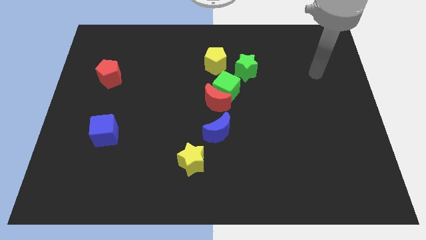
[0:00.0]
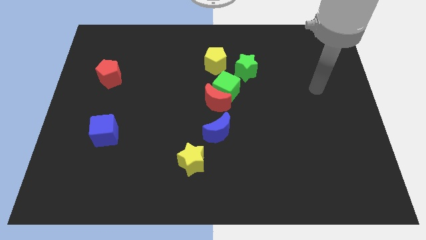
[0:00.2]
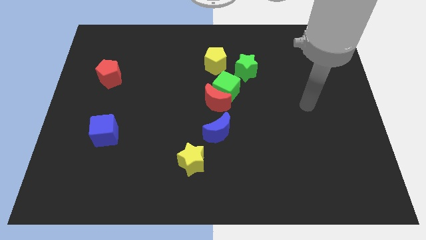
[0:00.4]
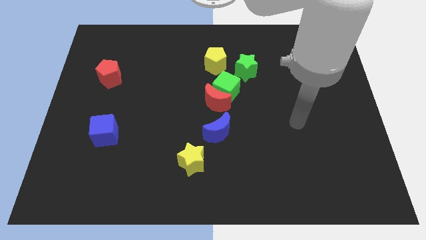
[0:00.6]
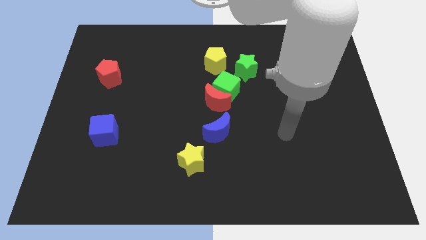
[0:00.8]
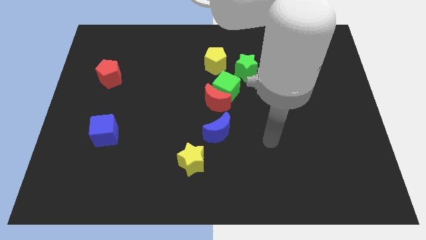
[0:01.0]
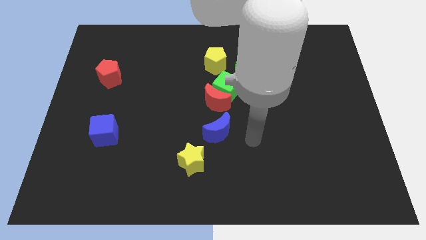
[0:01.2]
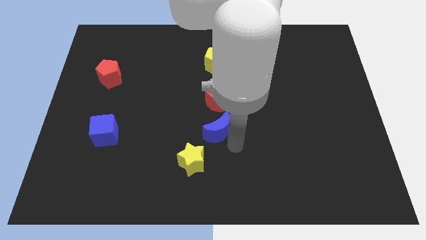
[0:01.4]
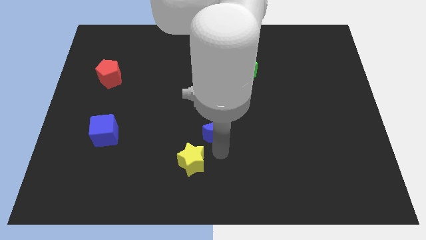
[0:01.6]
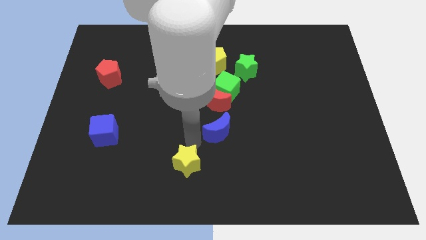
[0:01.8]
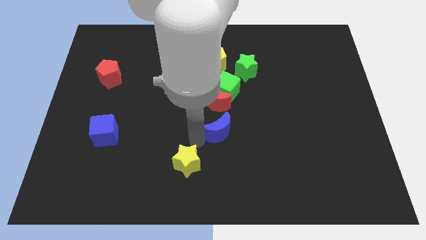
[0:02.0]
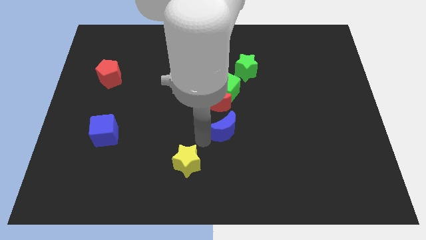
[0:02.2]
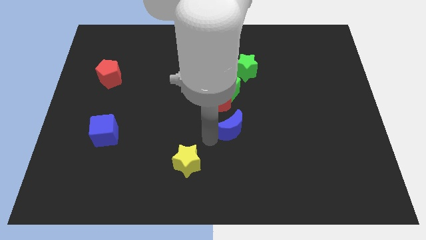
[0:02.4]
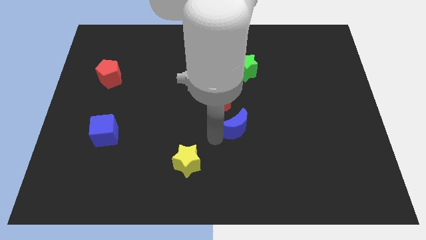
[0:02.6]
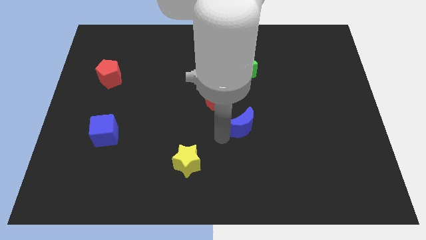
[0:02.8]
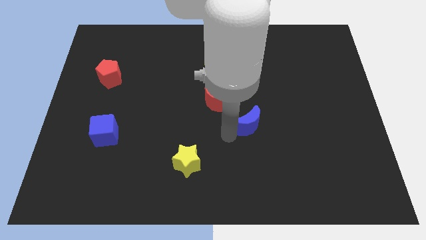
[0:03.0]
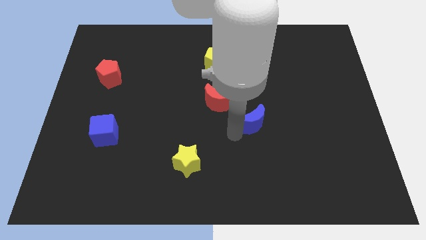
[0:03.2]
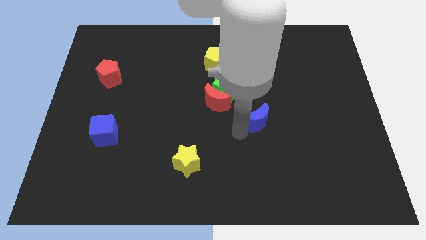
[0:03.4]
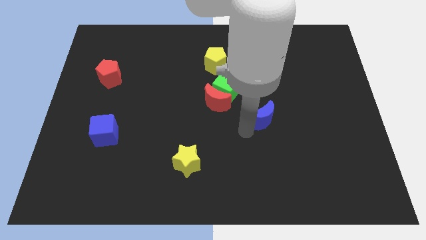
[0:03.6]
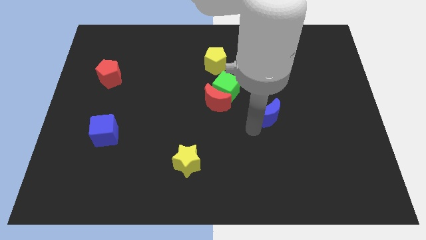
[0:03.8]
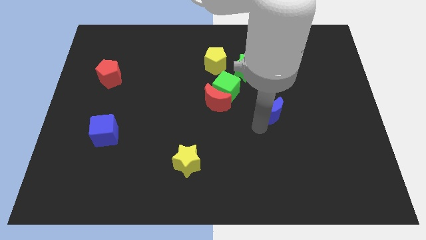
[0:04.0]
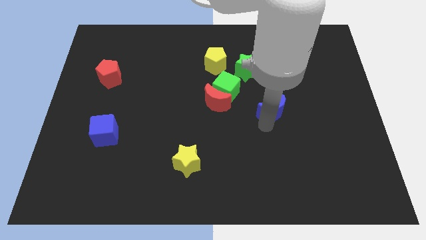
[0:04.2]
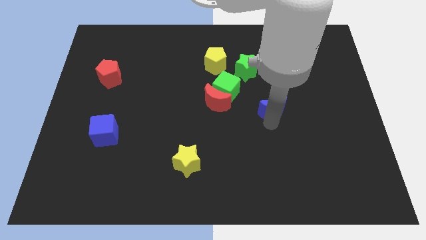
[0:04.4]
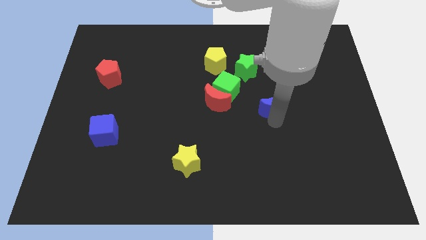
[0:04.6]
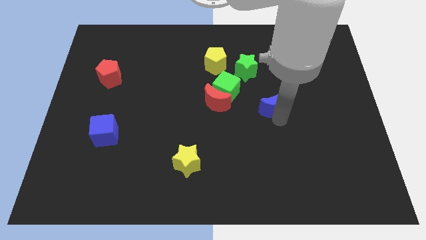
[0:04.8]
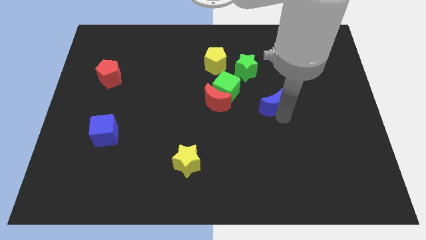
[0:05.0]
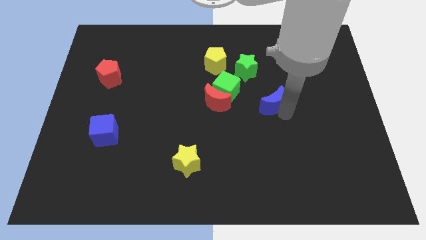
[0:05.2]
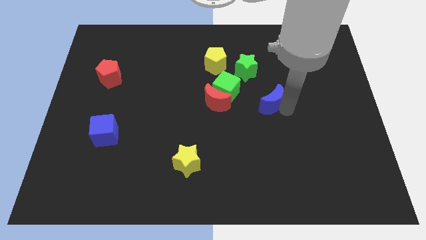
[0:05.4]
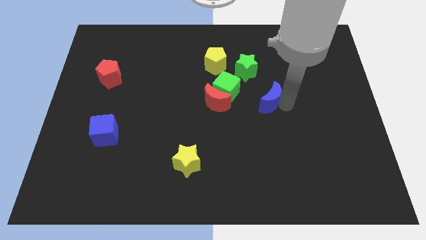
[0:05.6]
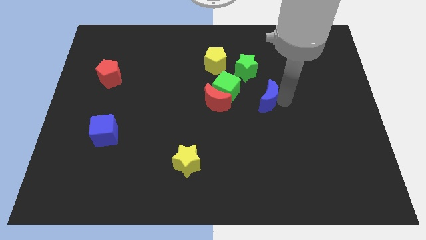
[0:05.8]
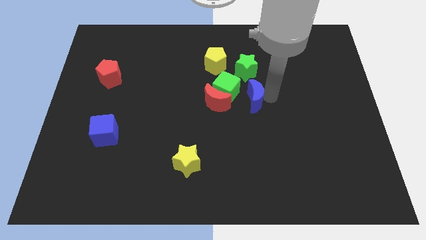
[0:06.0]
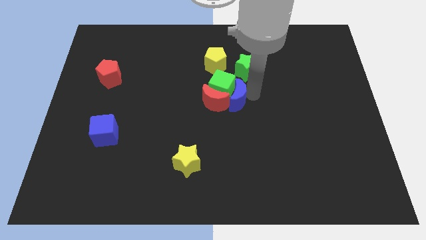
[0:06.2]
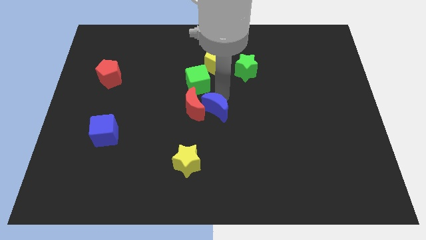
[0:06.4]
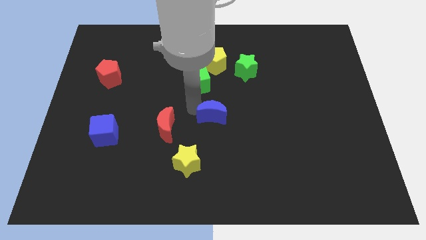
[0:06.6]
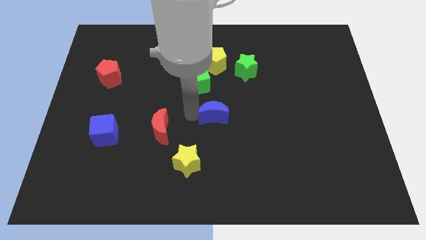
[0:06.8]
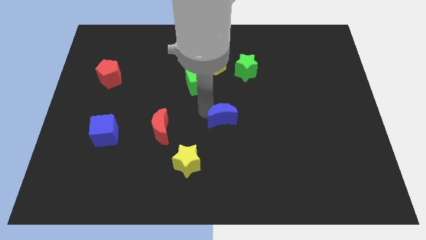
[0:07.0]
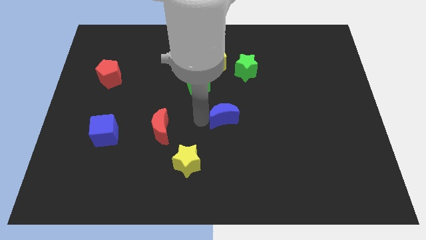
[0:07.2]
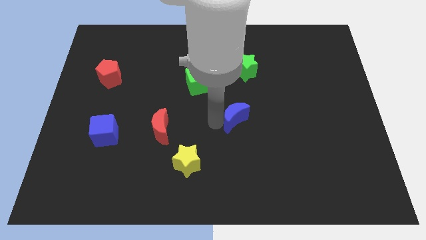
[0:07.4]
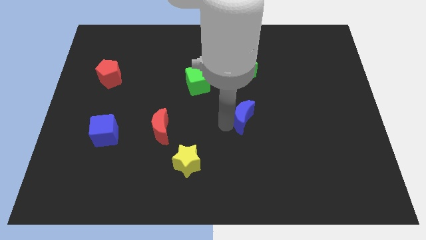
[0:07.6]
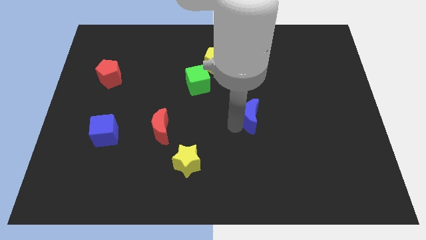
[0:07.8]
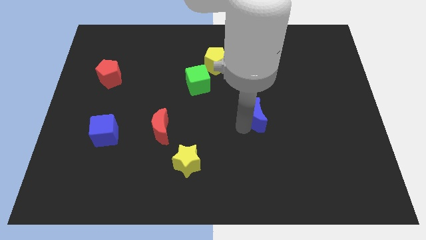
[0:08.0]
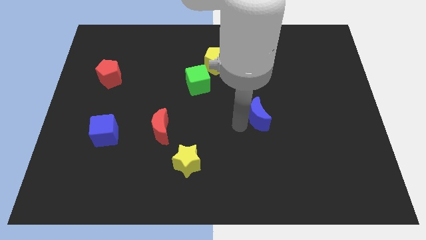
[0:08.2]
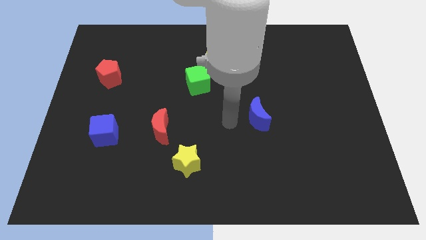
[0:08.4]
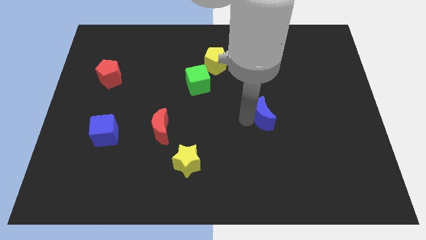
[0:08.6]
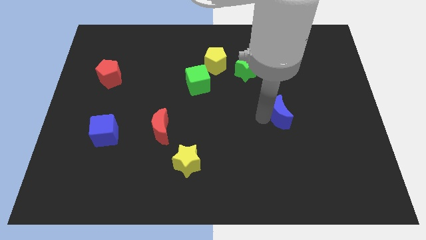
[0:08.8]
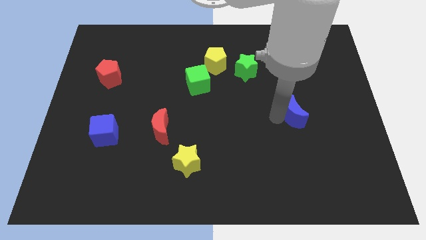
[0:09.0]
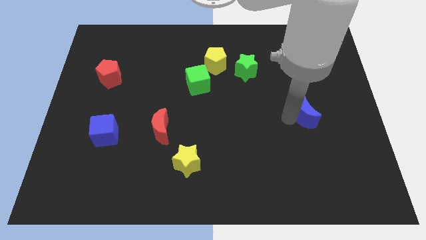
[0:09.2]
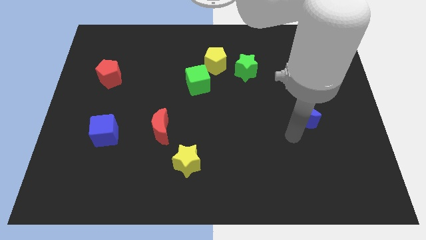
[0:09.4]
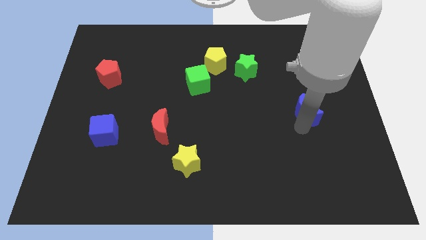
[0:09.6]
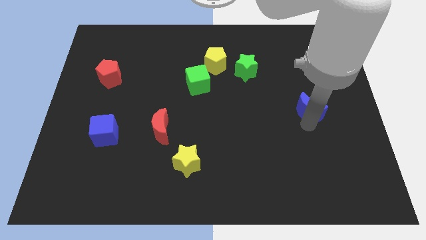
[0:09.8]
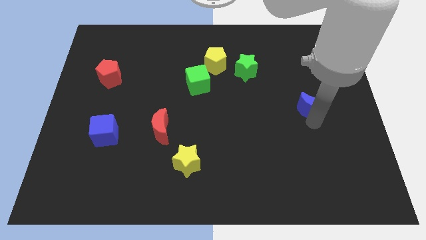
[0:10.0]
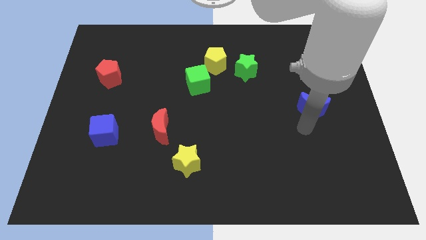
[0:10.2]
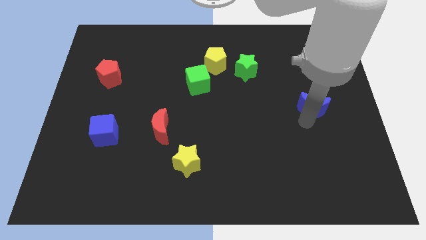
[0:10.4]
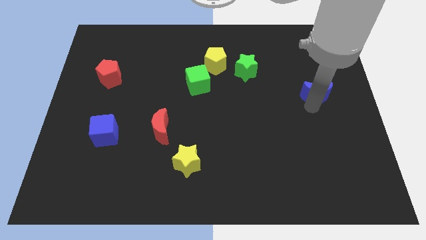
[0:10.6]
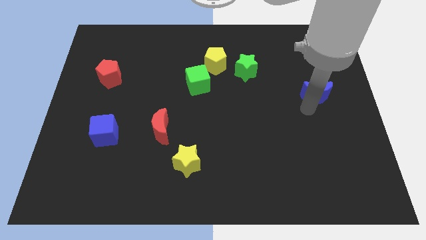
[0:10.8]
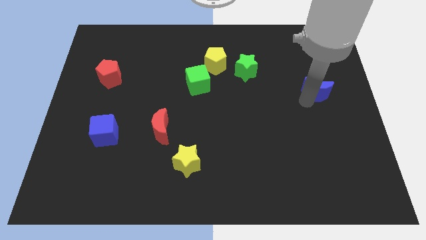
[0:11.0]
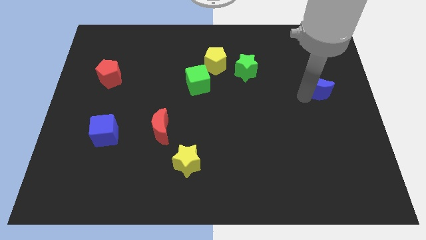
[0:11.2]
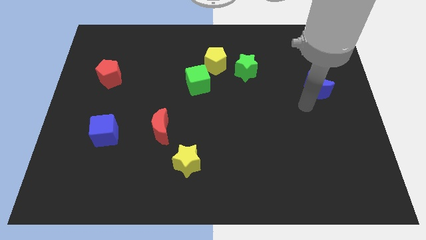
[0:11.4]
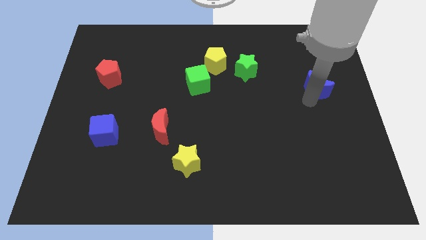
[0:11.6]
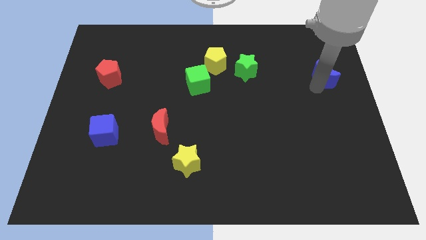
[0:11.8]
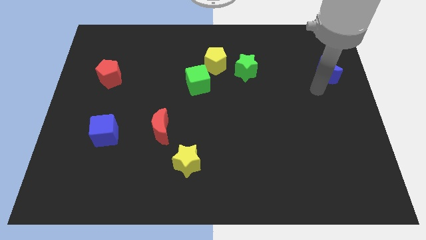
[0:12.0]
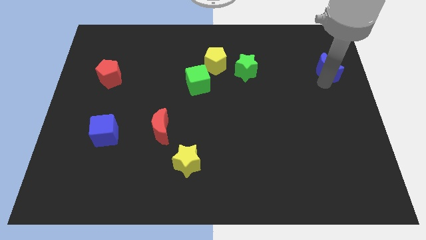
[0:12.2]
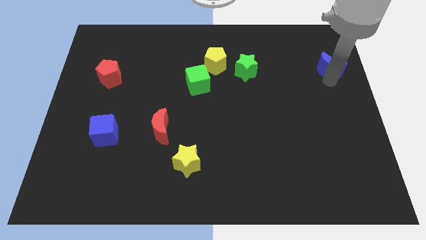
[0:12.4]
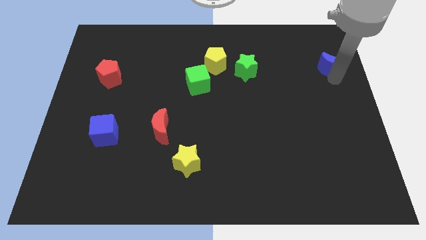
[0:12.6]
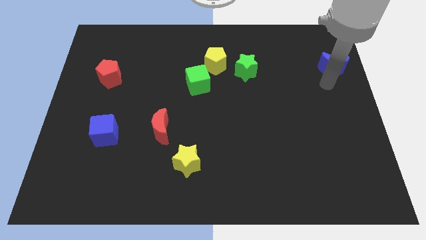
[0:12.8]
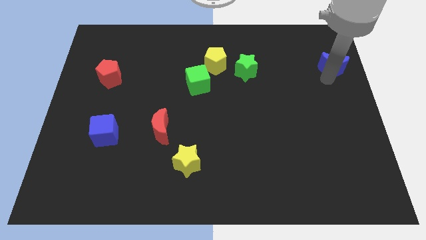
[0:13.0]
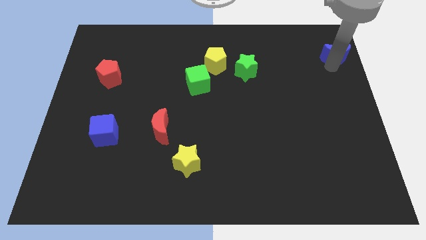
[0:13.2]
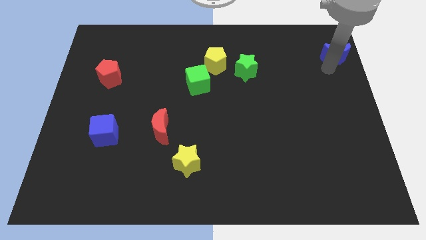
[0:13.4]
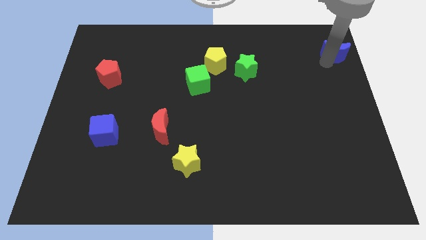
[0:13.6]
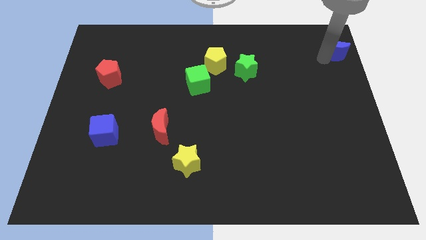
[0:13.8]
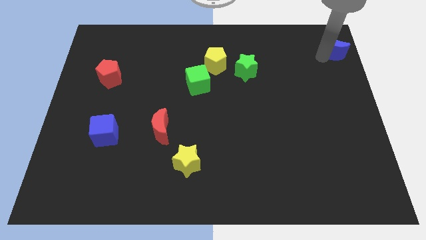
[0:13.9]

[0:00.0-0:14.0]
move the blue moon to the upper right corner

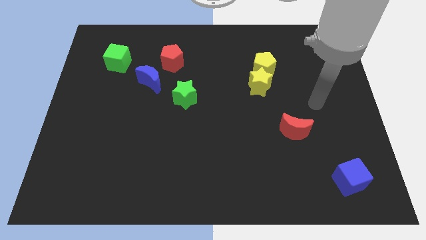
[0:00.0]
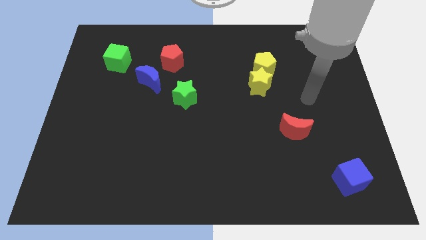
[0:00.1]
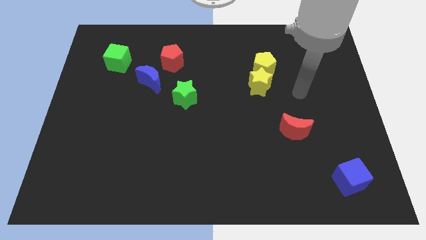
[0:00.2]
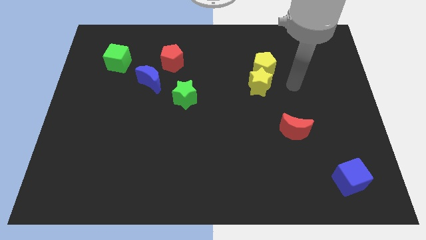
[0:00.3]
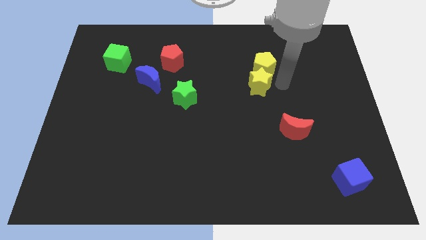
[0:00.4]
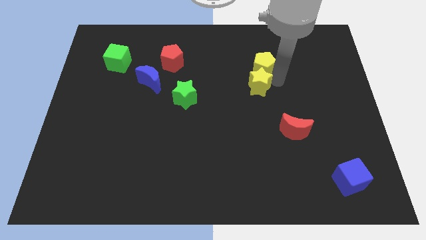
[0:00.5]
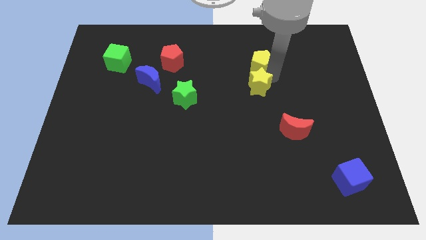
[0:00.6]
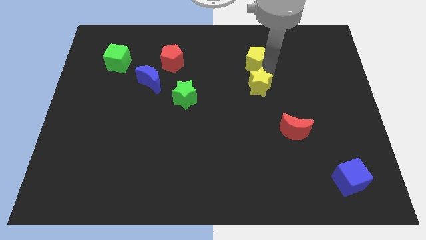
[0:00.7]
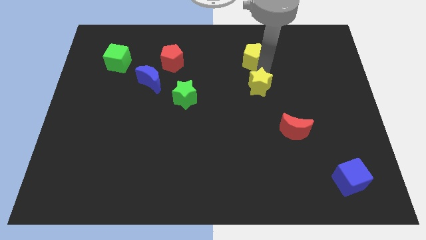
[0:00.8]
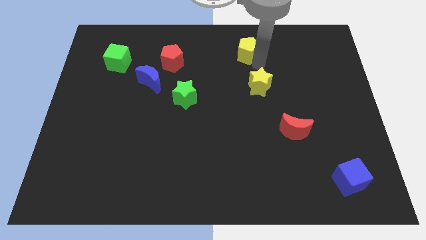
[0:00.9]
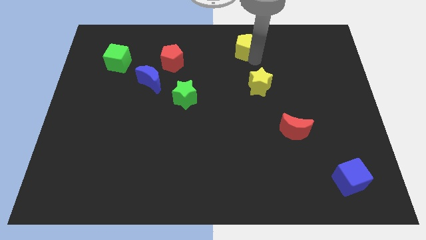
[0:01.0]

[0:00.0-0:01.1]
slide the yellow pentagon to the top side
